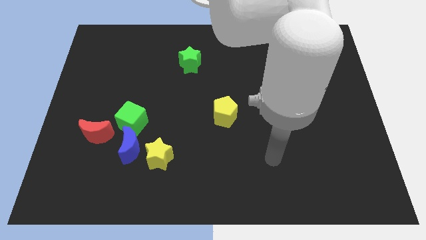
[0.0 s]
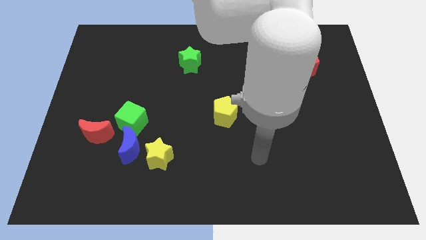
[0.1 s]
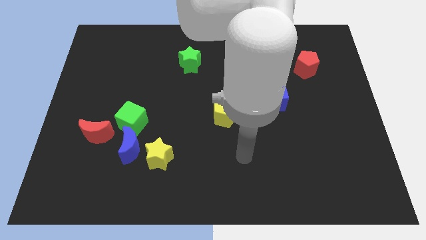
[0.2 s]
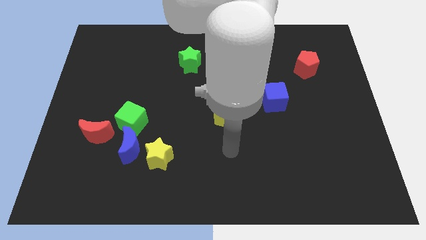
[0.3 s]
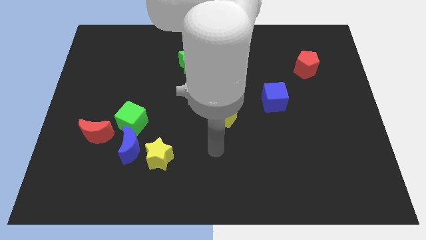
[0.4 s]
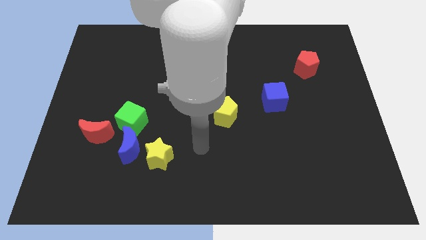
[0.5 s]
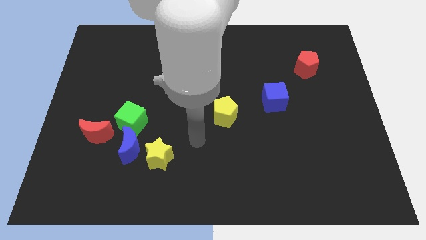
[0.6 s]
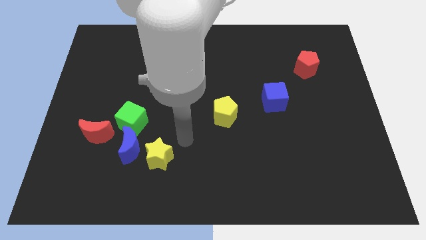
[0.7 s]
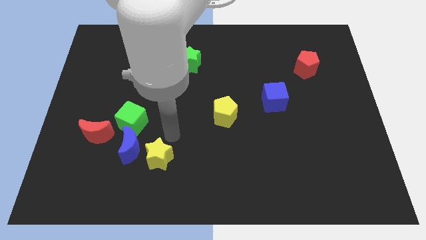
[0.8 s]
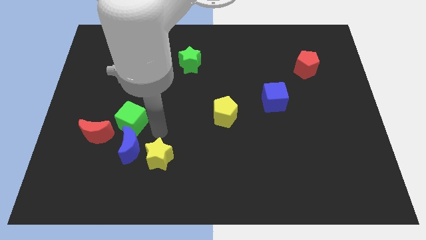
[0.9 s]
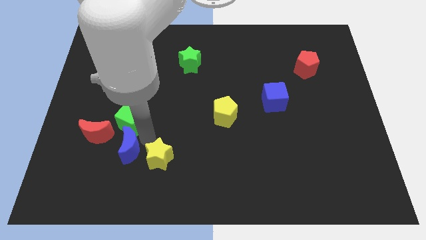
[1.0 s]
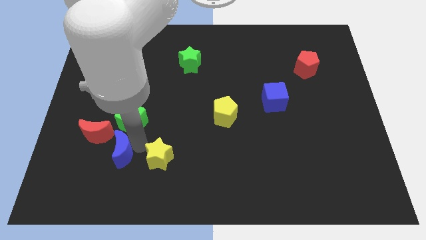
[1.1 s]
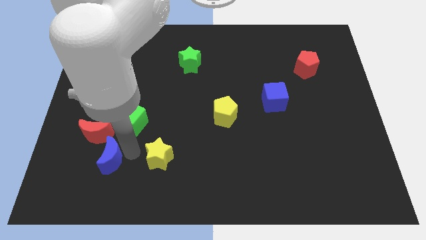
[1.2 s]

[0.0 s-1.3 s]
separate the yellow star from the blue moon

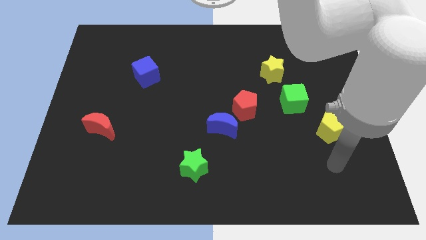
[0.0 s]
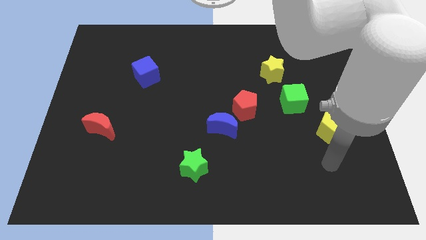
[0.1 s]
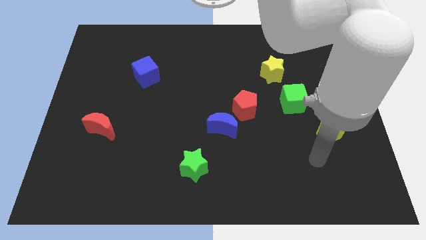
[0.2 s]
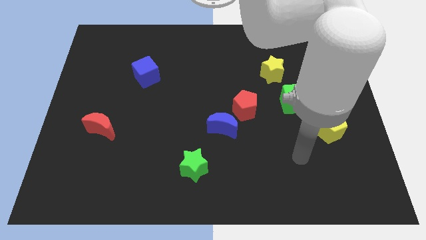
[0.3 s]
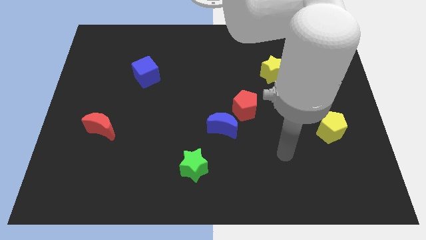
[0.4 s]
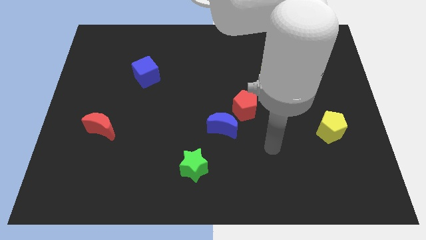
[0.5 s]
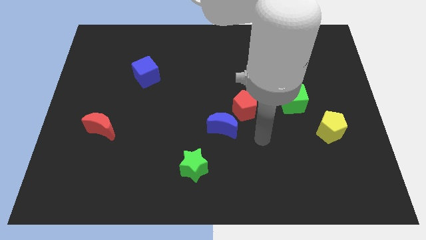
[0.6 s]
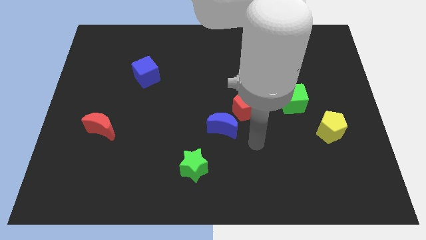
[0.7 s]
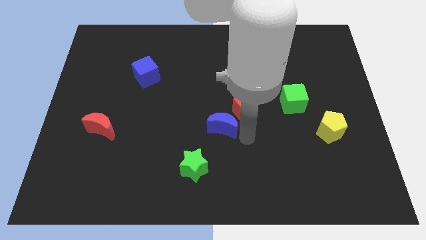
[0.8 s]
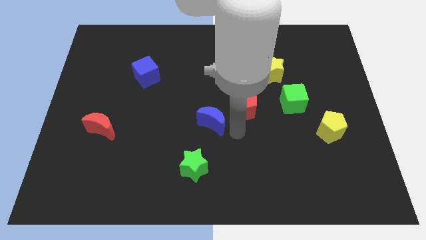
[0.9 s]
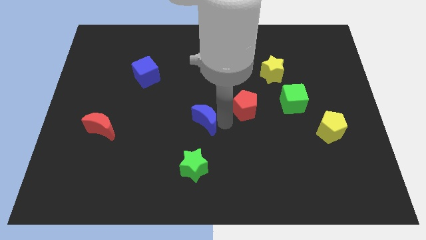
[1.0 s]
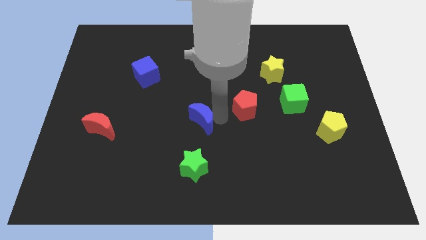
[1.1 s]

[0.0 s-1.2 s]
separate the red pentagon from the blue moon

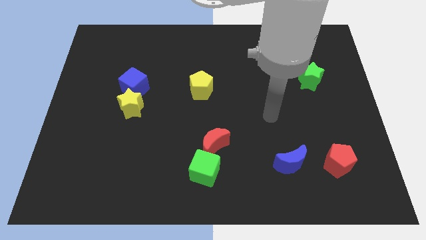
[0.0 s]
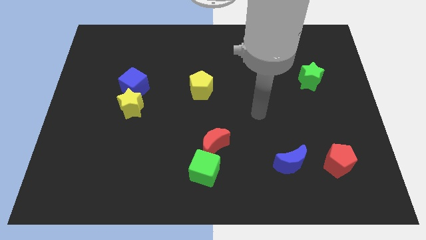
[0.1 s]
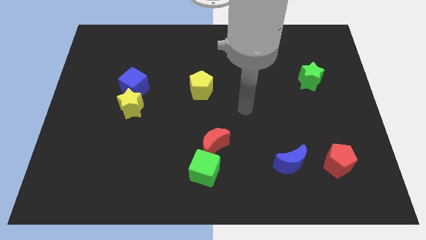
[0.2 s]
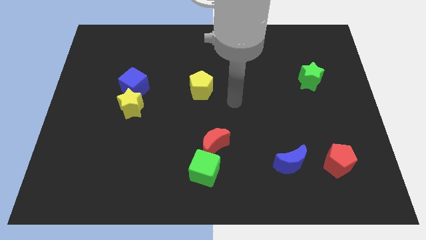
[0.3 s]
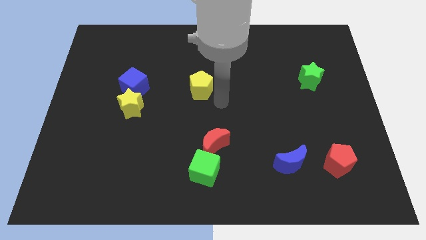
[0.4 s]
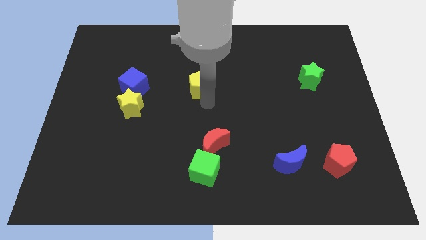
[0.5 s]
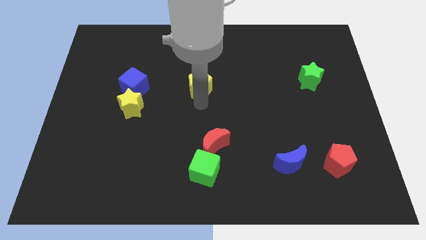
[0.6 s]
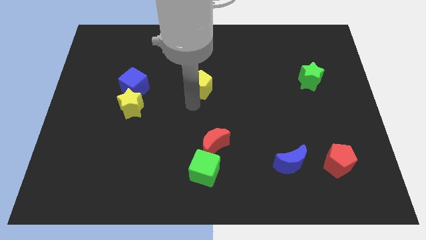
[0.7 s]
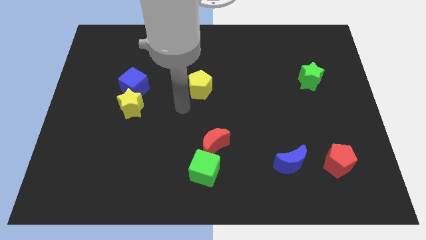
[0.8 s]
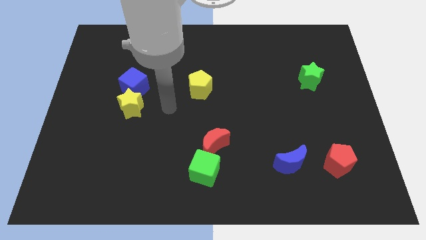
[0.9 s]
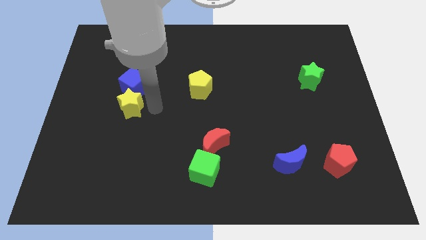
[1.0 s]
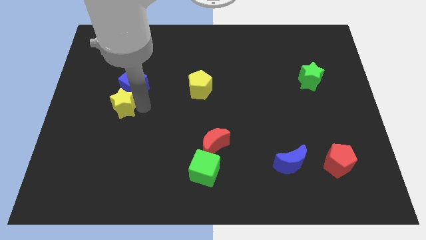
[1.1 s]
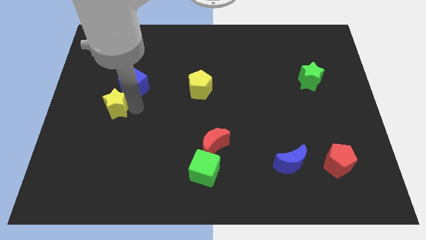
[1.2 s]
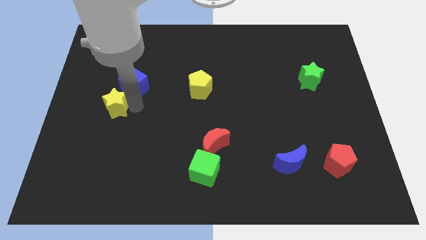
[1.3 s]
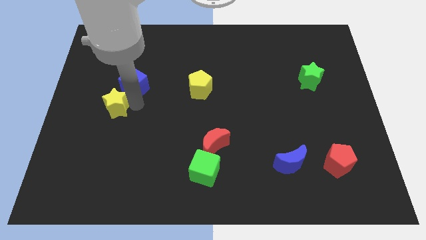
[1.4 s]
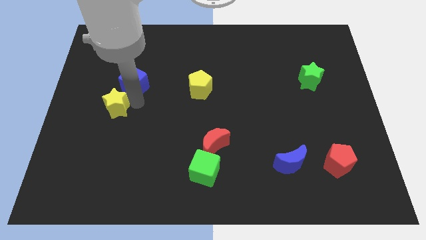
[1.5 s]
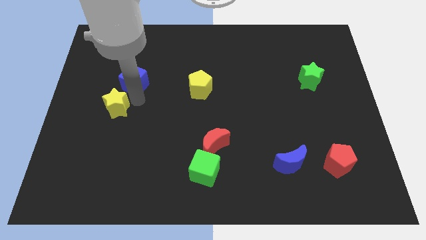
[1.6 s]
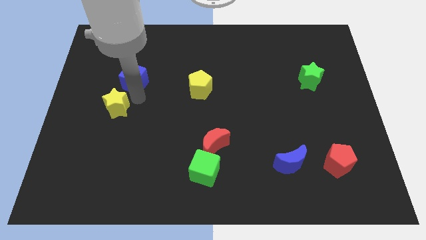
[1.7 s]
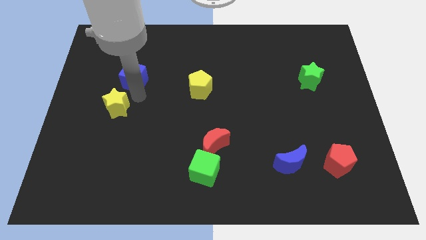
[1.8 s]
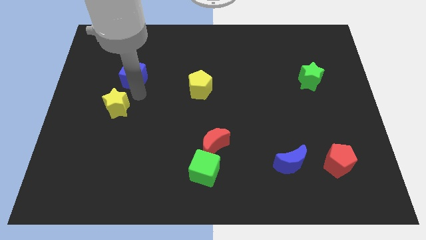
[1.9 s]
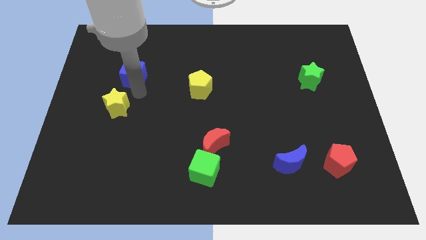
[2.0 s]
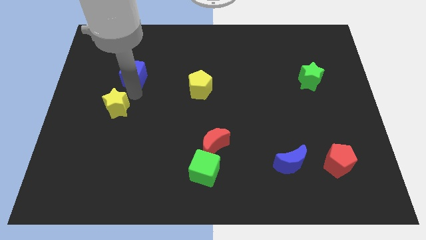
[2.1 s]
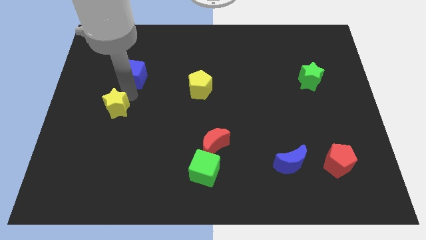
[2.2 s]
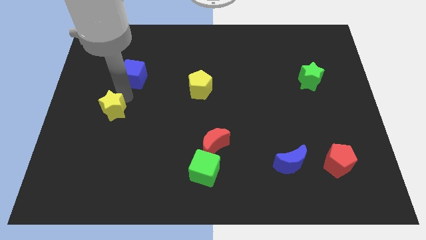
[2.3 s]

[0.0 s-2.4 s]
separate the blue cube from the yellow star

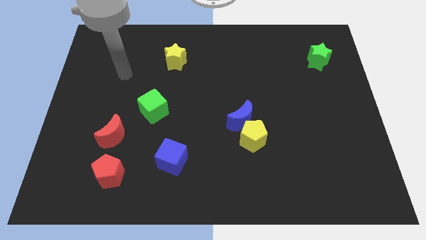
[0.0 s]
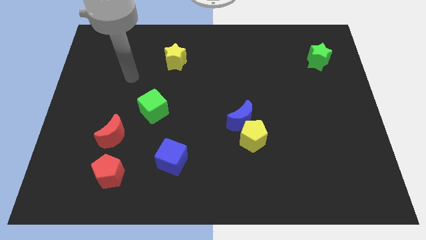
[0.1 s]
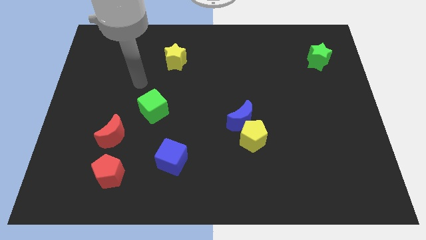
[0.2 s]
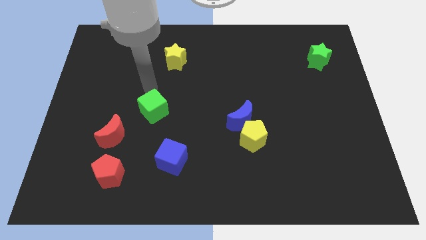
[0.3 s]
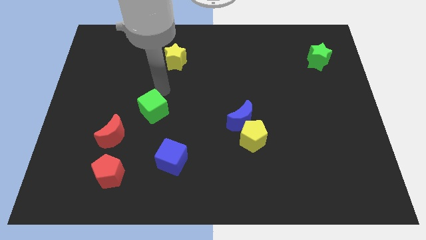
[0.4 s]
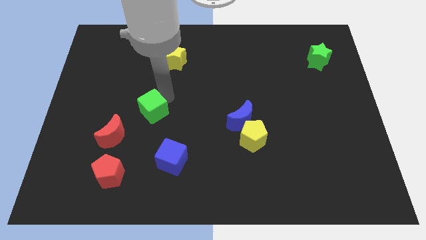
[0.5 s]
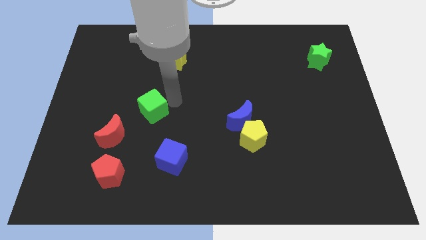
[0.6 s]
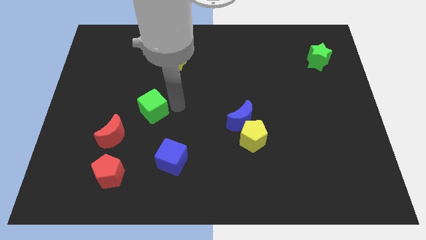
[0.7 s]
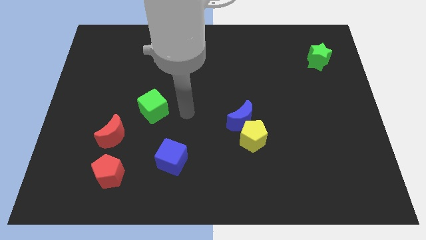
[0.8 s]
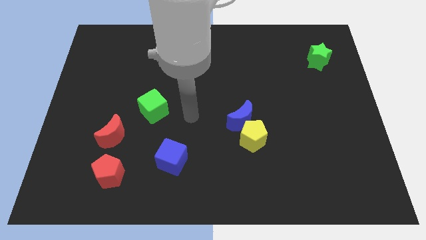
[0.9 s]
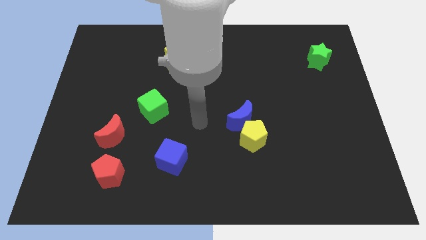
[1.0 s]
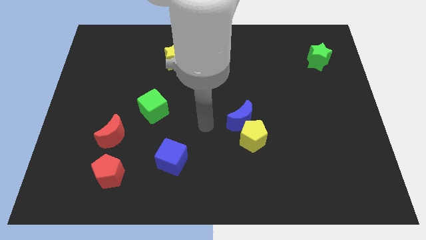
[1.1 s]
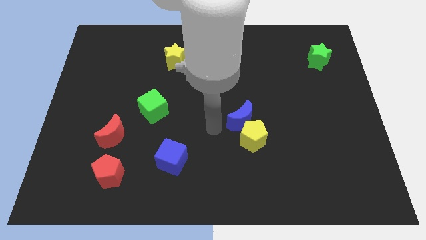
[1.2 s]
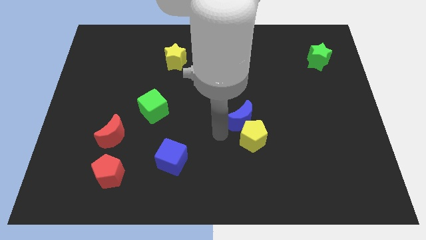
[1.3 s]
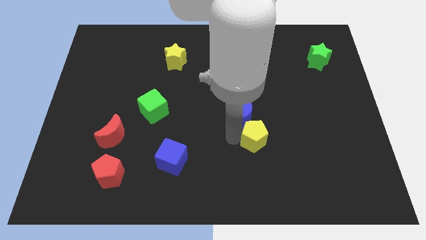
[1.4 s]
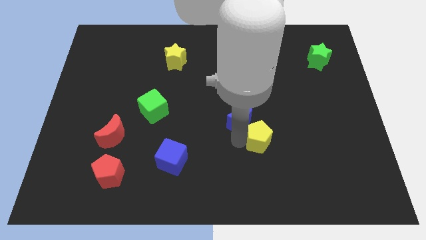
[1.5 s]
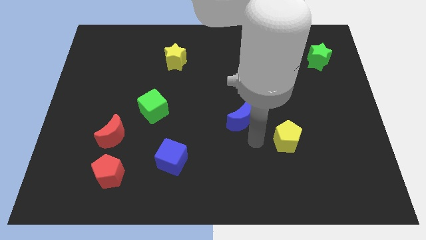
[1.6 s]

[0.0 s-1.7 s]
move the blue moon away from the yellow pentagon

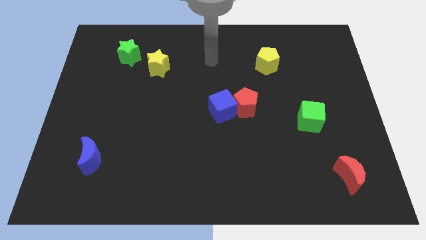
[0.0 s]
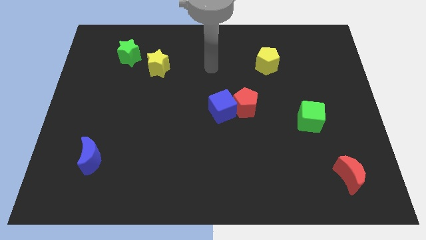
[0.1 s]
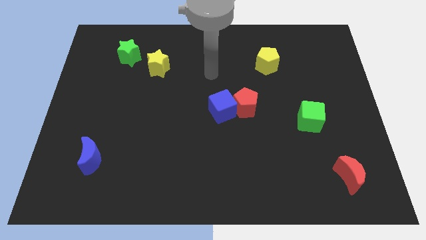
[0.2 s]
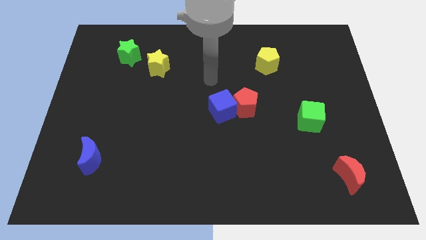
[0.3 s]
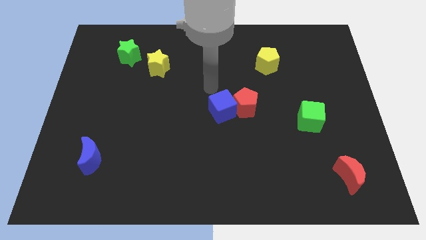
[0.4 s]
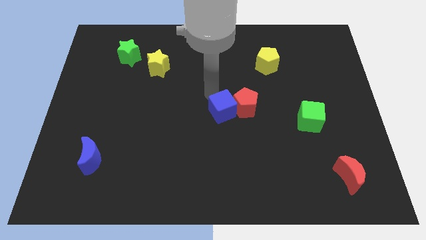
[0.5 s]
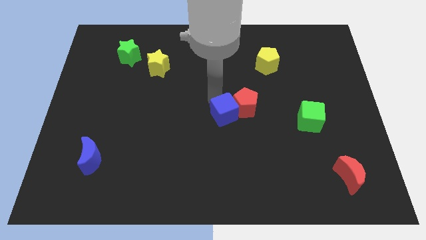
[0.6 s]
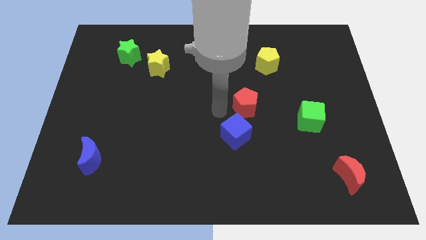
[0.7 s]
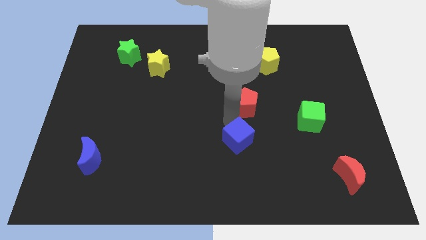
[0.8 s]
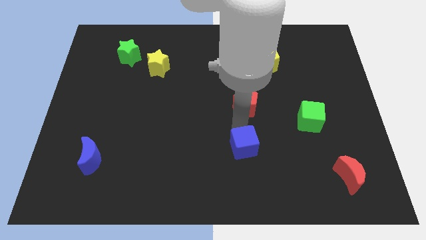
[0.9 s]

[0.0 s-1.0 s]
separate the red pentagon from the blue cube

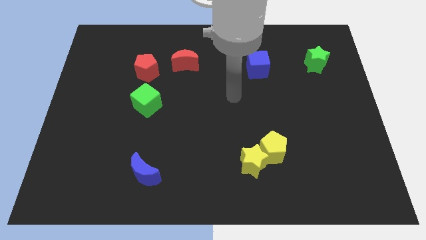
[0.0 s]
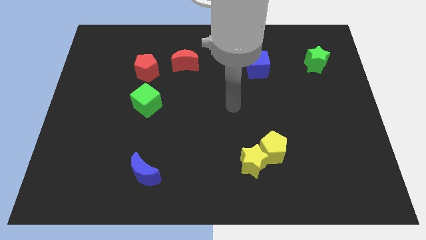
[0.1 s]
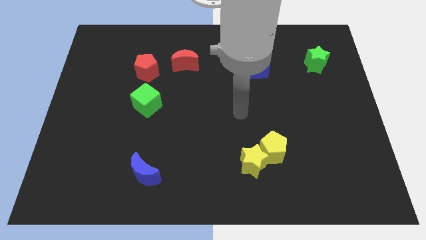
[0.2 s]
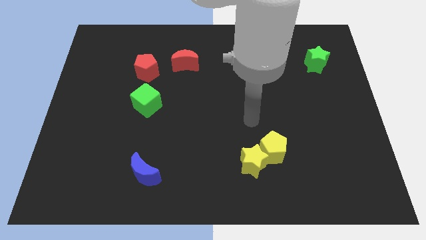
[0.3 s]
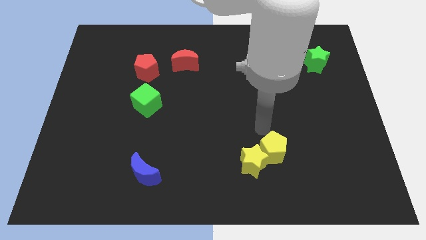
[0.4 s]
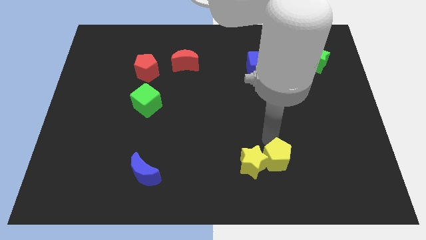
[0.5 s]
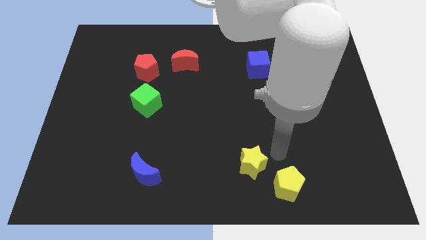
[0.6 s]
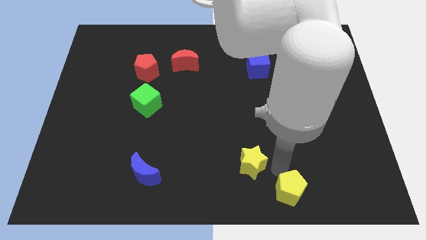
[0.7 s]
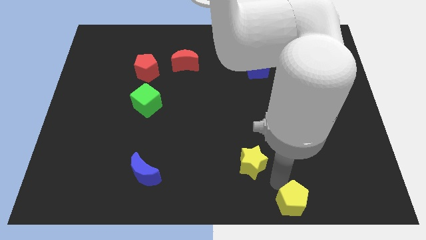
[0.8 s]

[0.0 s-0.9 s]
pull the yellow star apart from the yellow pentagon

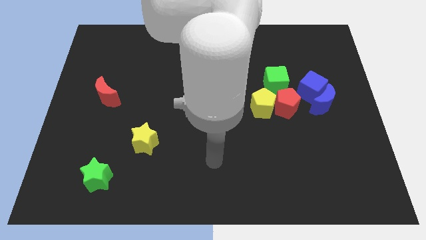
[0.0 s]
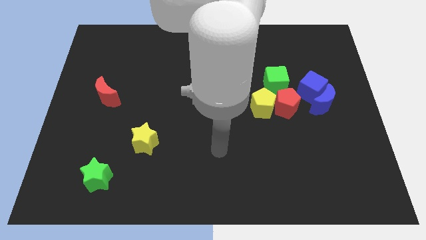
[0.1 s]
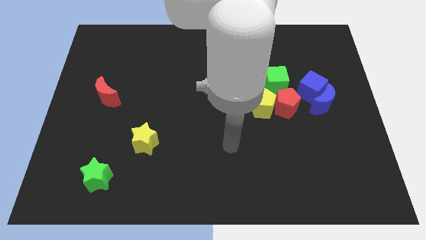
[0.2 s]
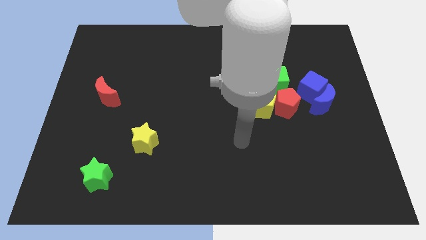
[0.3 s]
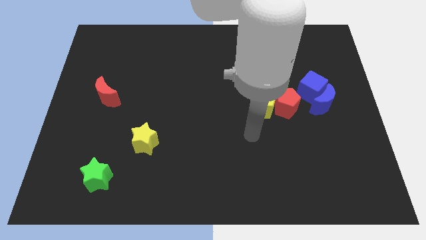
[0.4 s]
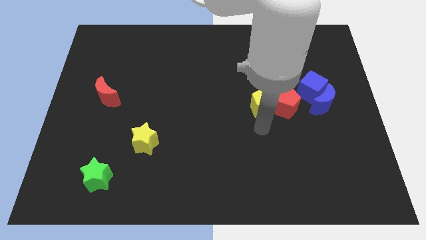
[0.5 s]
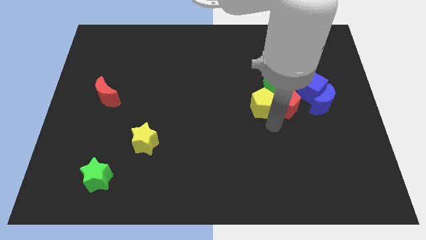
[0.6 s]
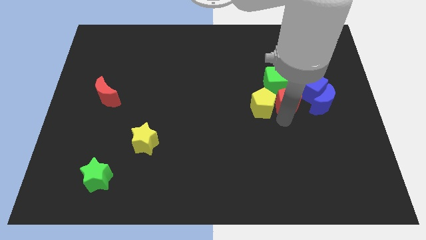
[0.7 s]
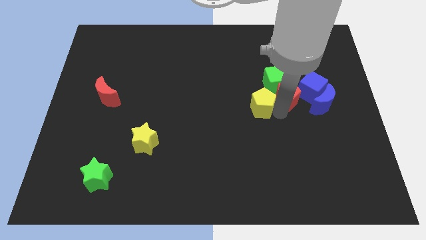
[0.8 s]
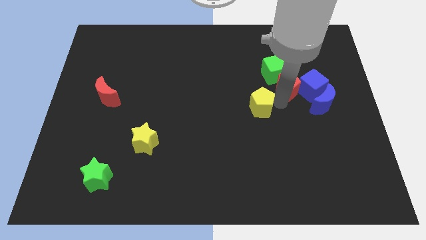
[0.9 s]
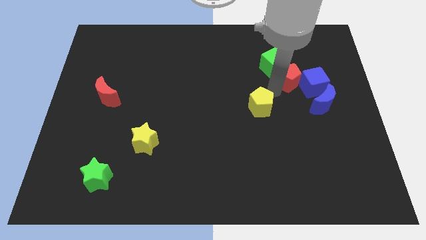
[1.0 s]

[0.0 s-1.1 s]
move the yellow pentagon away from the red pentagon and green cube
